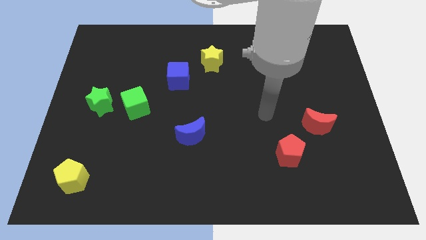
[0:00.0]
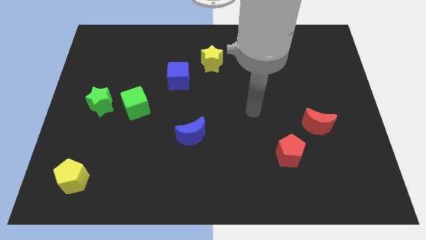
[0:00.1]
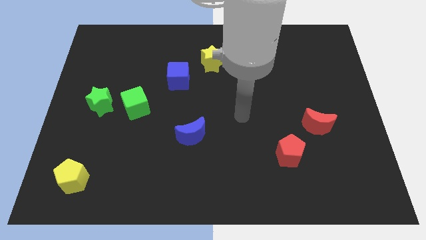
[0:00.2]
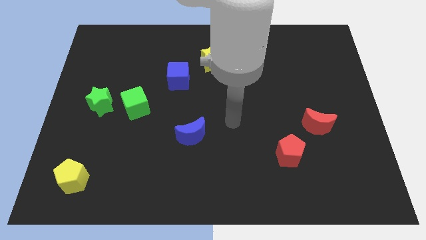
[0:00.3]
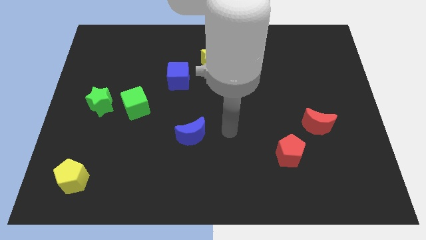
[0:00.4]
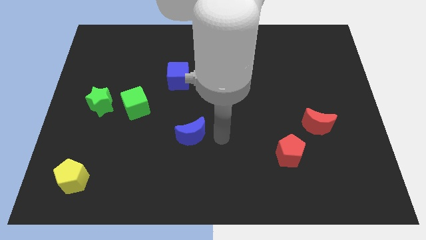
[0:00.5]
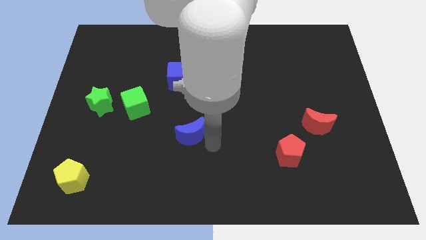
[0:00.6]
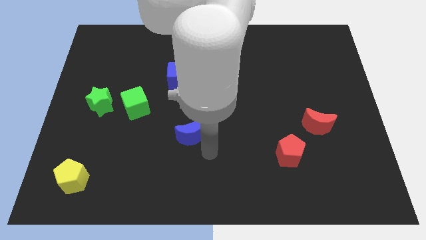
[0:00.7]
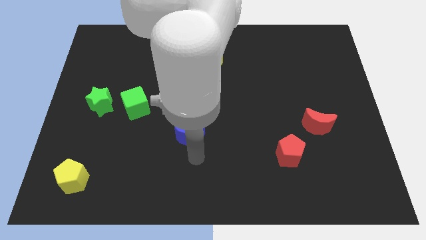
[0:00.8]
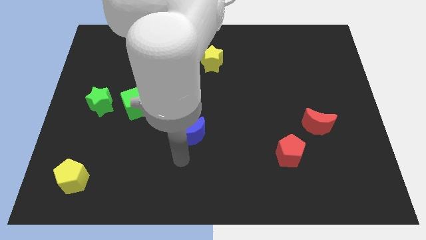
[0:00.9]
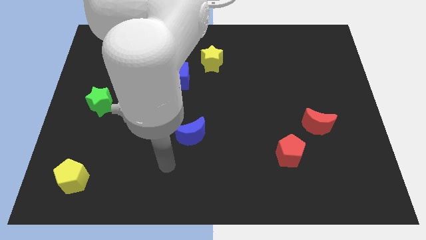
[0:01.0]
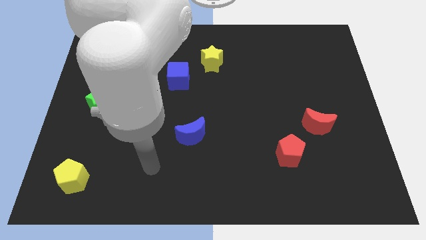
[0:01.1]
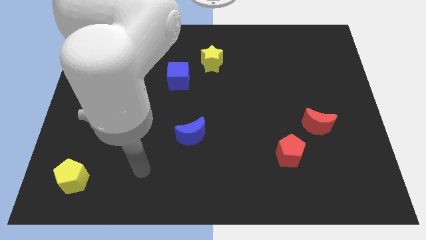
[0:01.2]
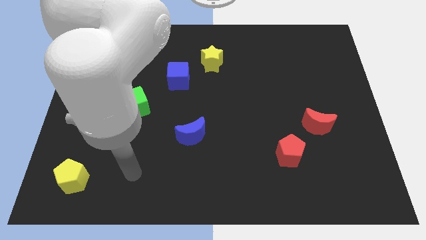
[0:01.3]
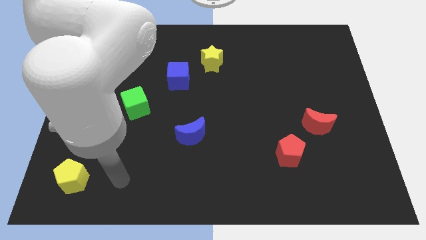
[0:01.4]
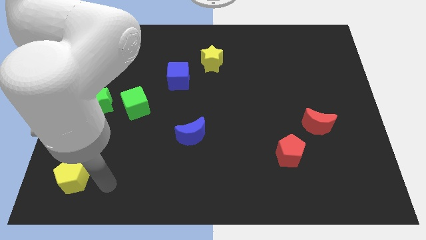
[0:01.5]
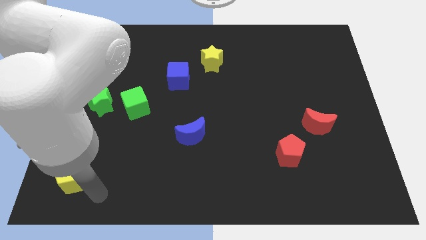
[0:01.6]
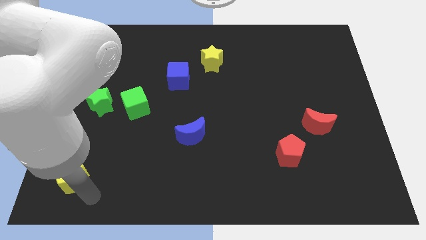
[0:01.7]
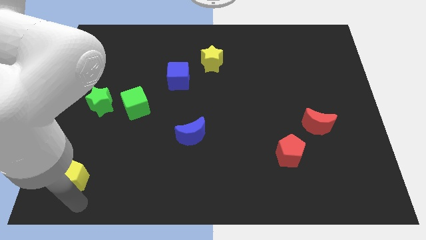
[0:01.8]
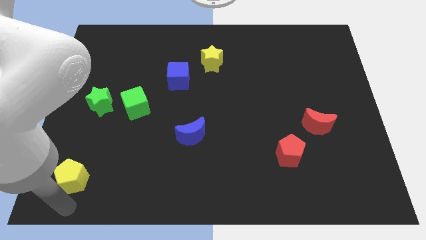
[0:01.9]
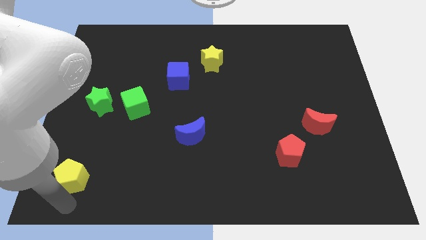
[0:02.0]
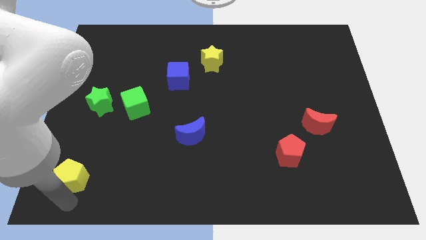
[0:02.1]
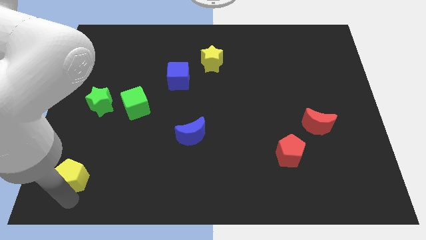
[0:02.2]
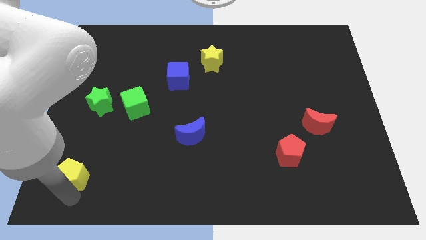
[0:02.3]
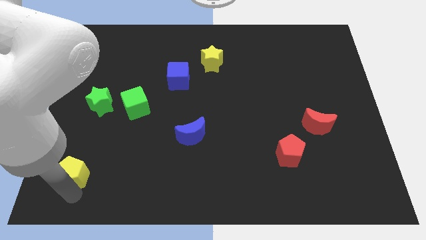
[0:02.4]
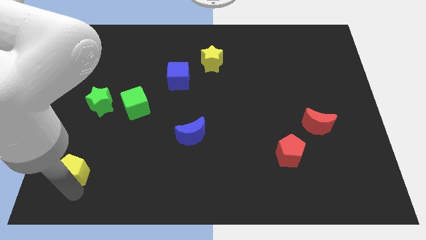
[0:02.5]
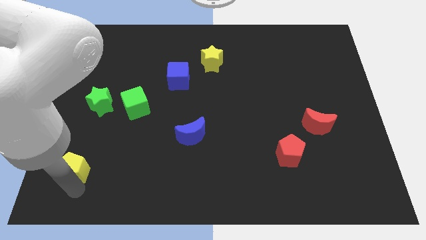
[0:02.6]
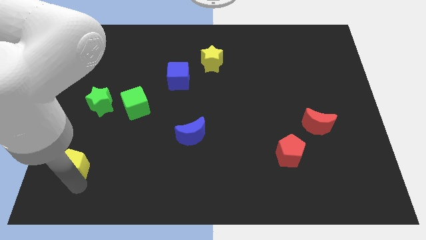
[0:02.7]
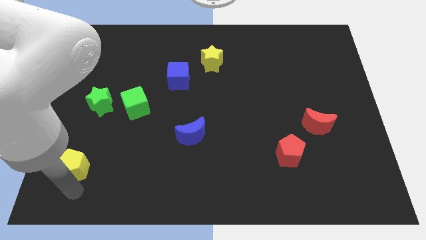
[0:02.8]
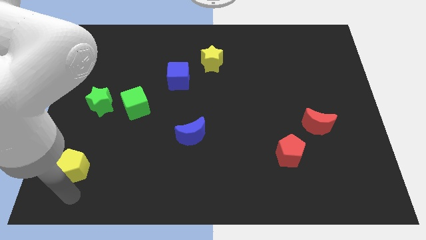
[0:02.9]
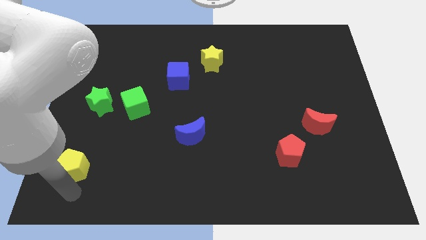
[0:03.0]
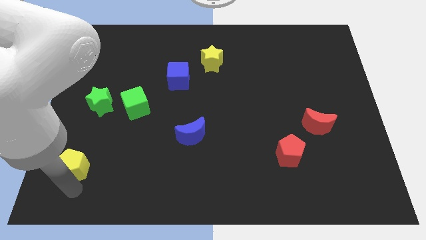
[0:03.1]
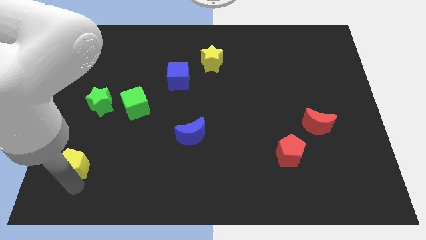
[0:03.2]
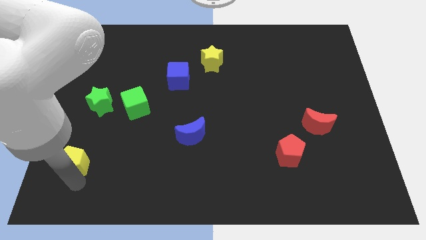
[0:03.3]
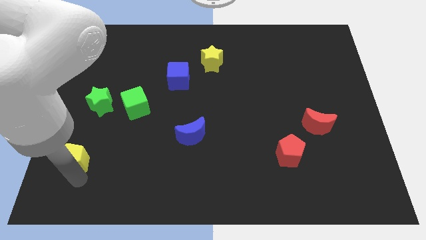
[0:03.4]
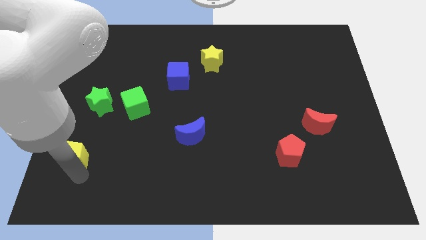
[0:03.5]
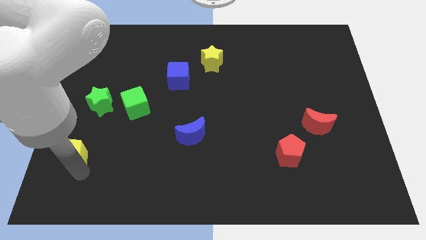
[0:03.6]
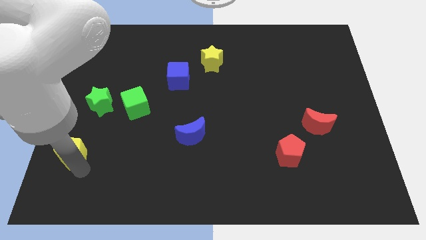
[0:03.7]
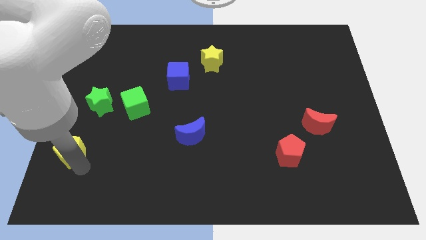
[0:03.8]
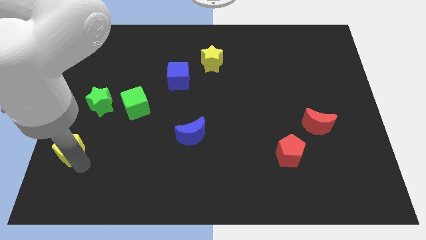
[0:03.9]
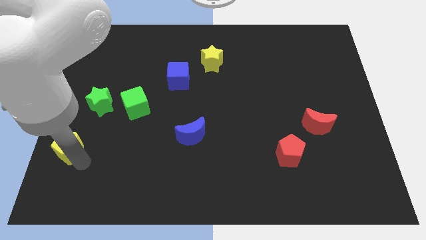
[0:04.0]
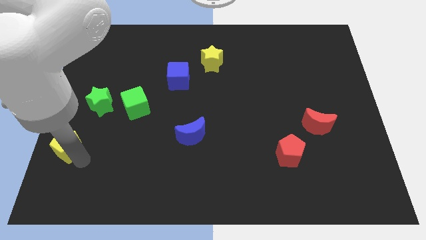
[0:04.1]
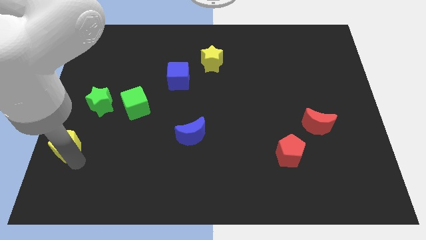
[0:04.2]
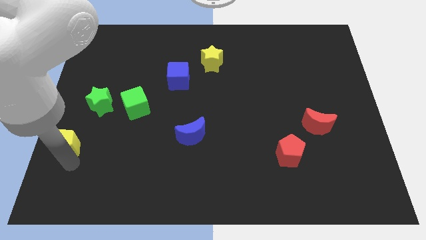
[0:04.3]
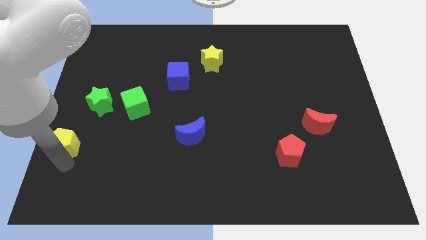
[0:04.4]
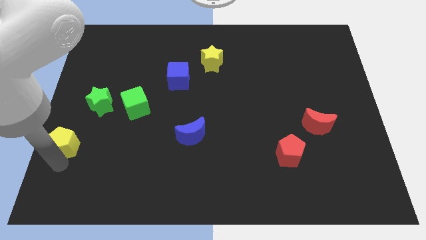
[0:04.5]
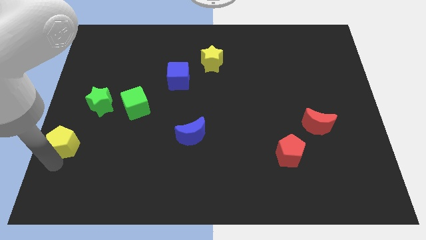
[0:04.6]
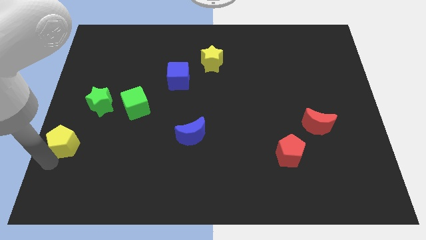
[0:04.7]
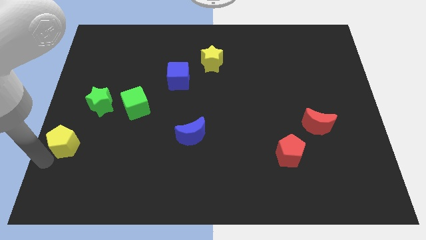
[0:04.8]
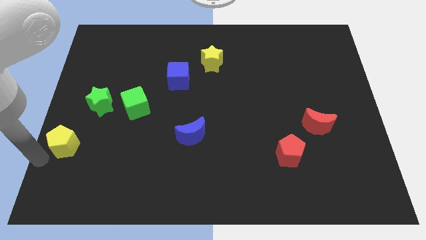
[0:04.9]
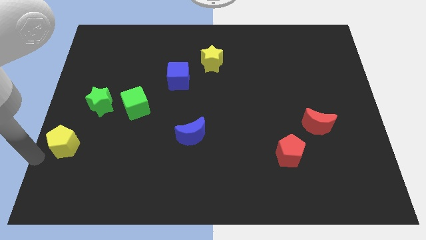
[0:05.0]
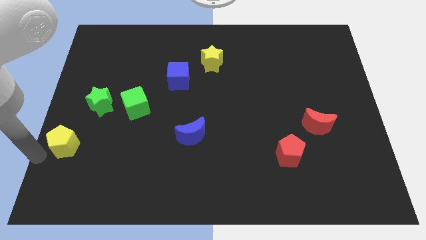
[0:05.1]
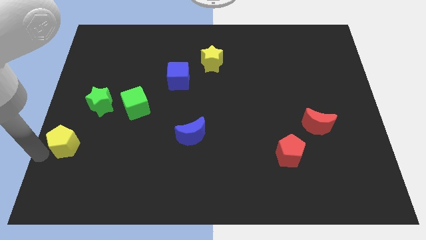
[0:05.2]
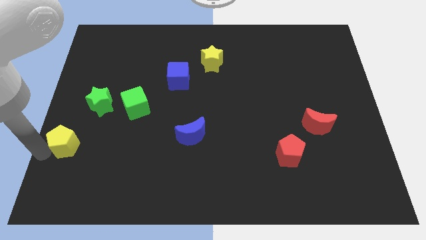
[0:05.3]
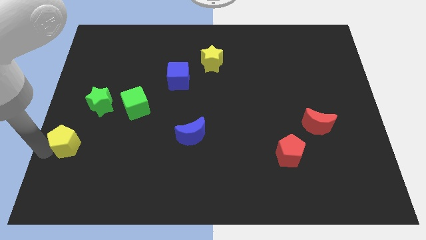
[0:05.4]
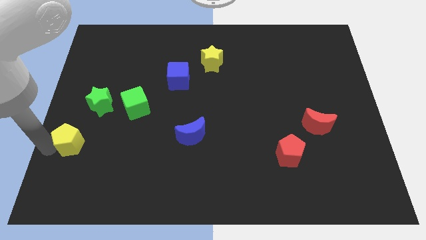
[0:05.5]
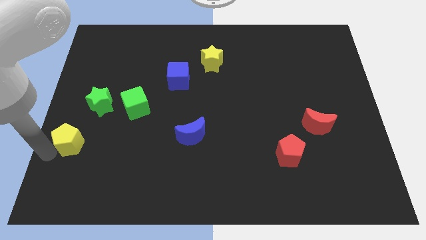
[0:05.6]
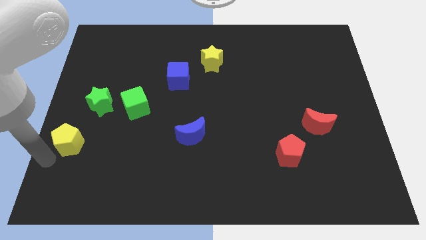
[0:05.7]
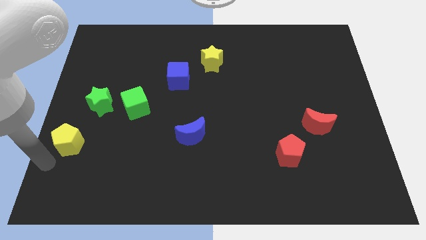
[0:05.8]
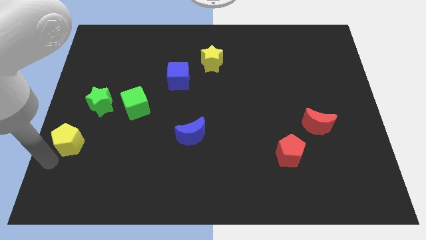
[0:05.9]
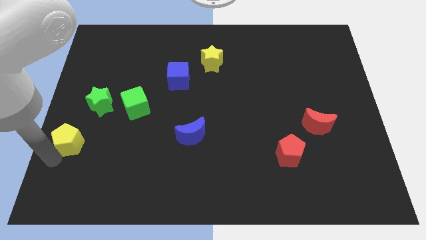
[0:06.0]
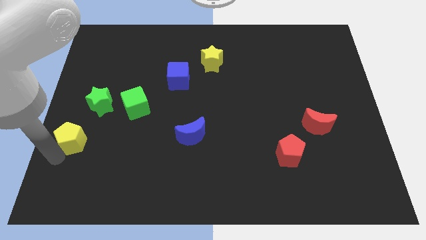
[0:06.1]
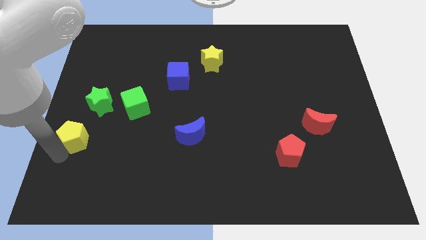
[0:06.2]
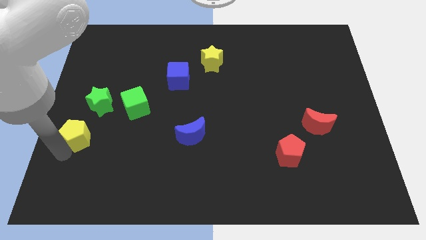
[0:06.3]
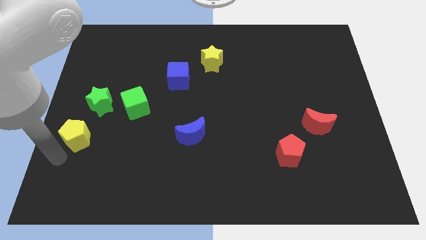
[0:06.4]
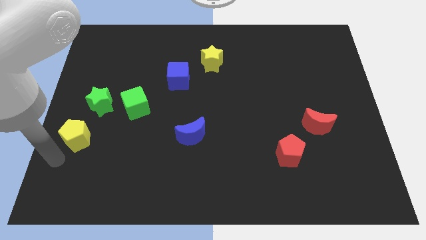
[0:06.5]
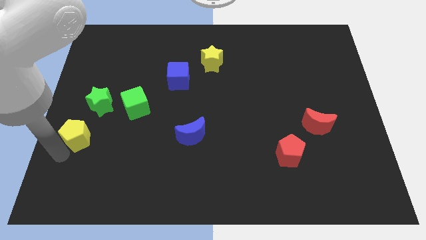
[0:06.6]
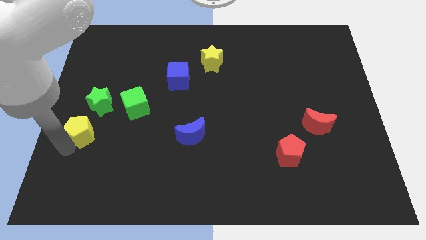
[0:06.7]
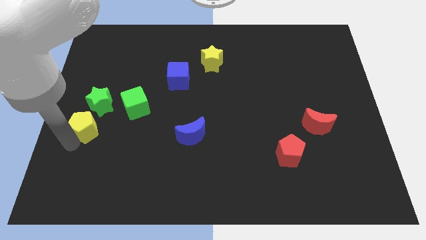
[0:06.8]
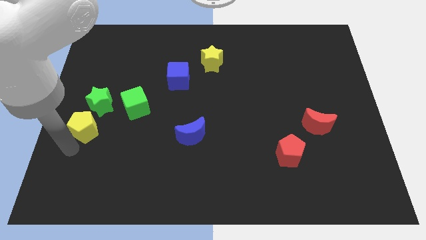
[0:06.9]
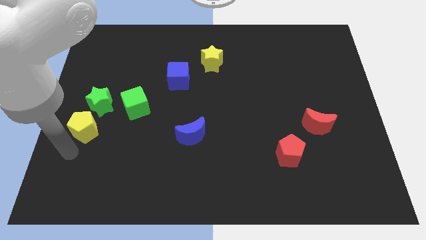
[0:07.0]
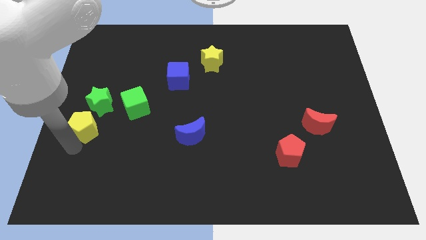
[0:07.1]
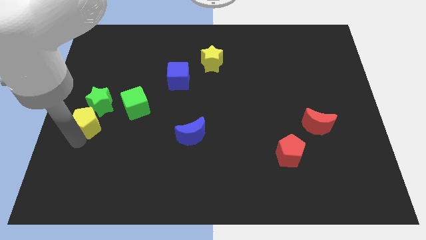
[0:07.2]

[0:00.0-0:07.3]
put the yellow pentagon close to the green star

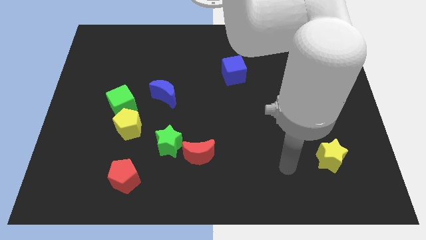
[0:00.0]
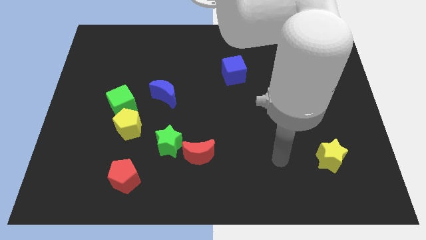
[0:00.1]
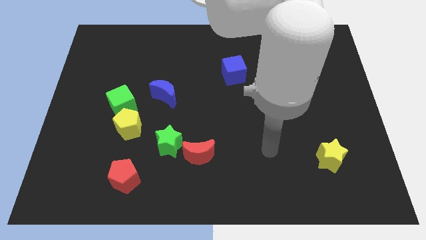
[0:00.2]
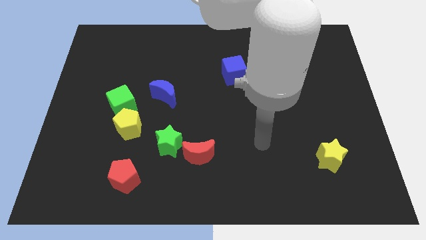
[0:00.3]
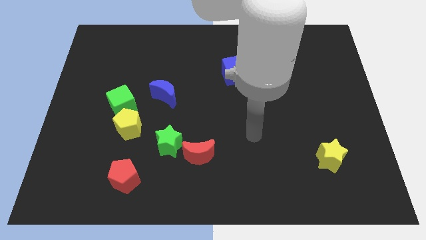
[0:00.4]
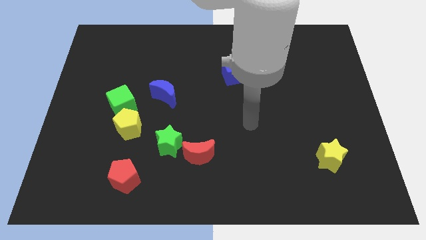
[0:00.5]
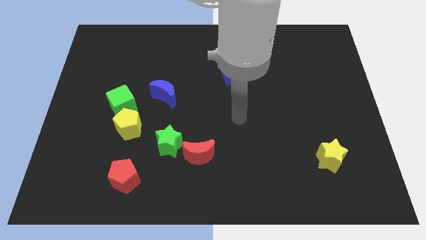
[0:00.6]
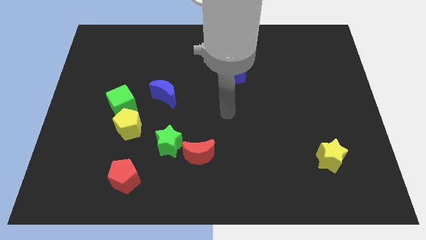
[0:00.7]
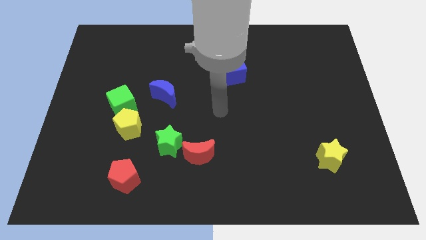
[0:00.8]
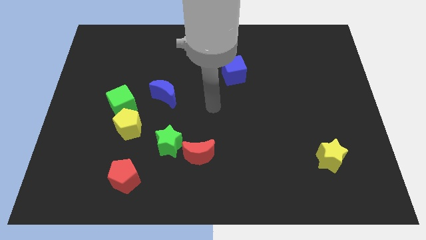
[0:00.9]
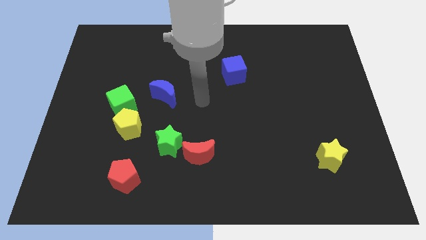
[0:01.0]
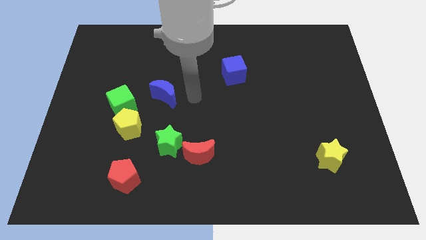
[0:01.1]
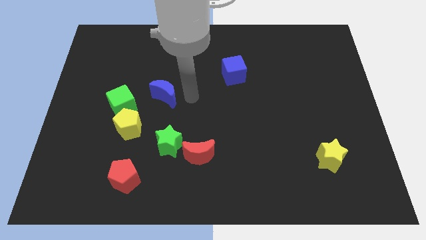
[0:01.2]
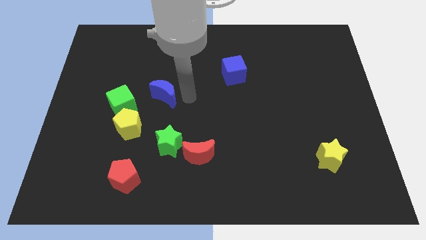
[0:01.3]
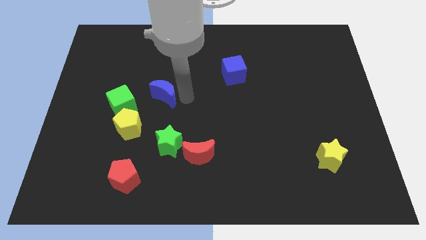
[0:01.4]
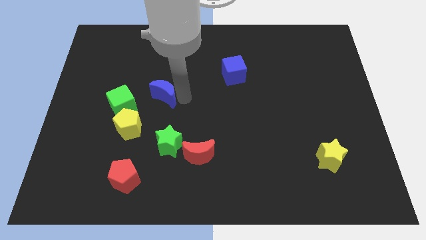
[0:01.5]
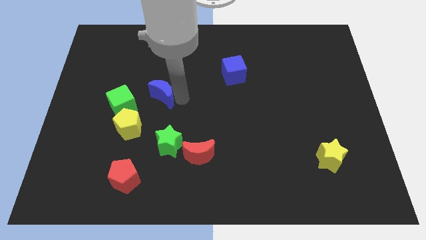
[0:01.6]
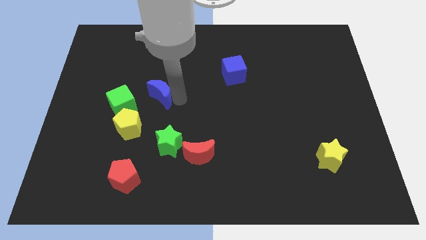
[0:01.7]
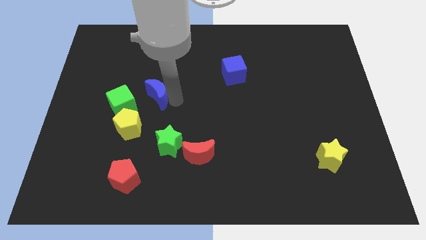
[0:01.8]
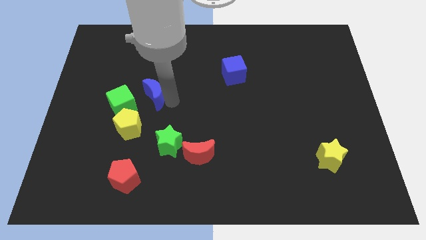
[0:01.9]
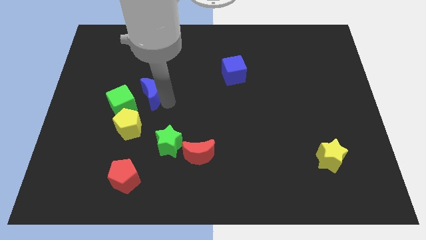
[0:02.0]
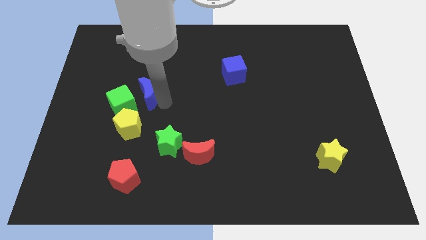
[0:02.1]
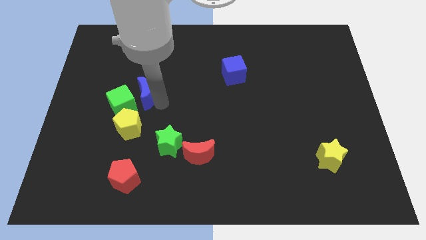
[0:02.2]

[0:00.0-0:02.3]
push the blue moon to the green cube
